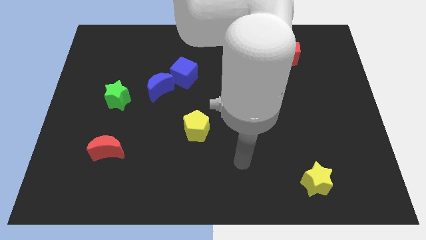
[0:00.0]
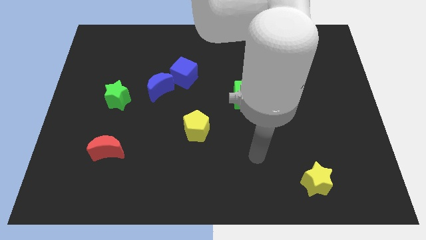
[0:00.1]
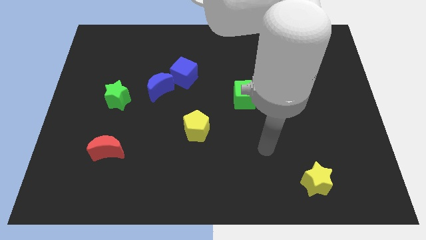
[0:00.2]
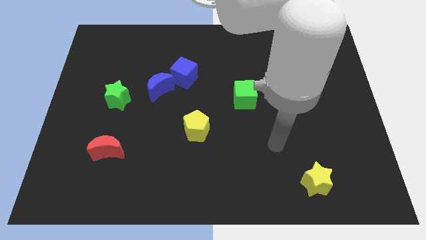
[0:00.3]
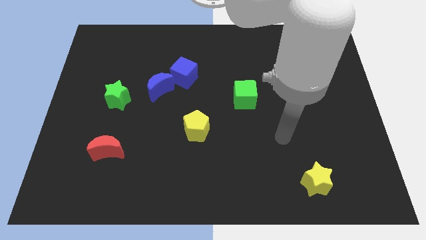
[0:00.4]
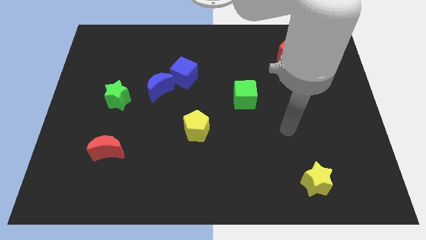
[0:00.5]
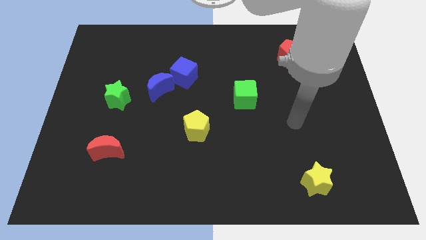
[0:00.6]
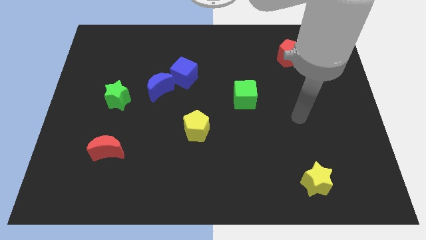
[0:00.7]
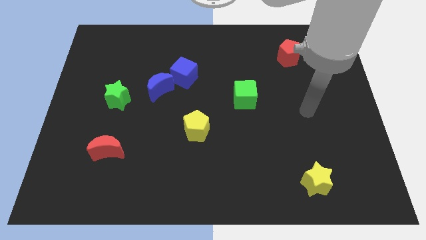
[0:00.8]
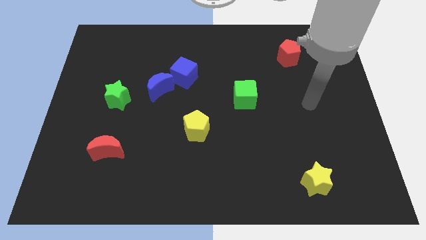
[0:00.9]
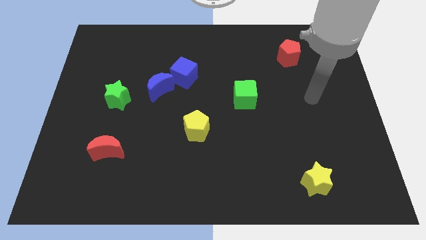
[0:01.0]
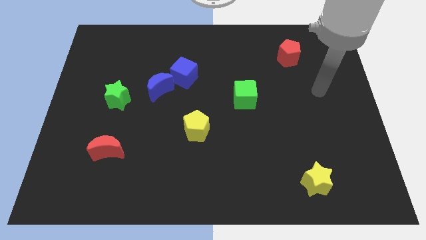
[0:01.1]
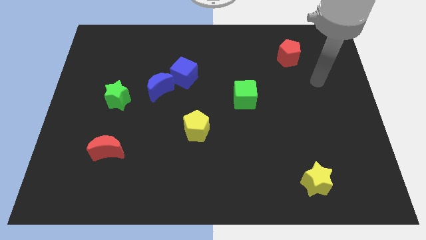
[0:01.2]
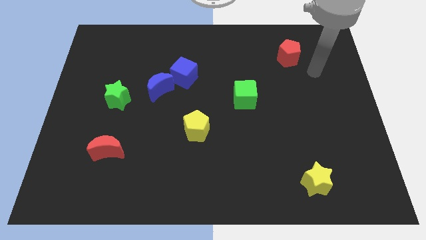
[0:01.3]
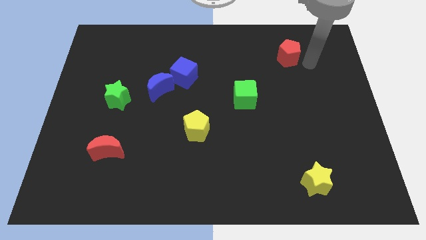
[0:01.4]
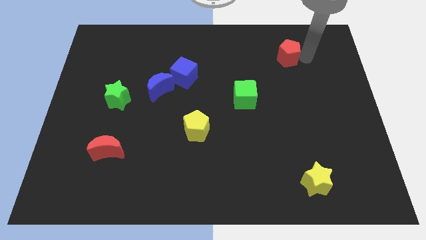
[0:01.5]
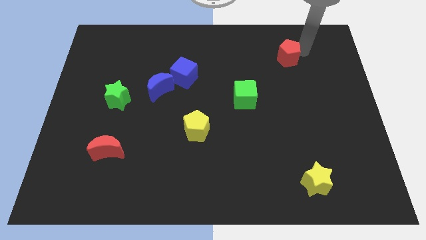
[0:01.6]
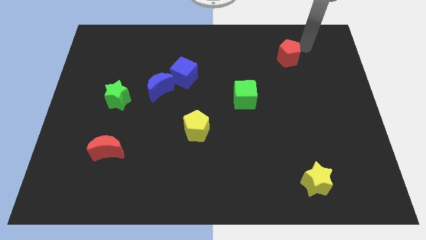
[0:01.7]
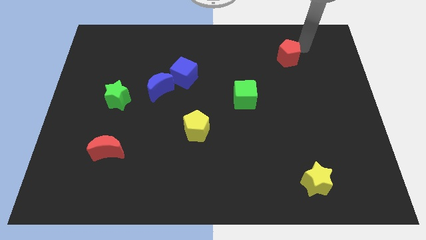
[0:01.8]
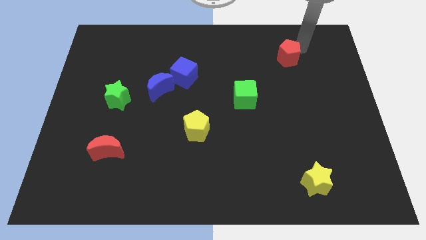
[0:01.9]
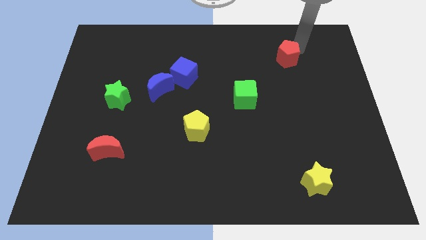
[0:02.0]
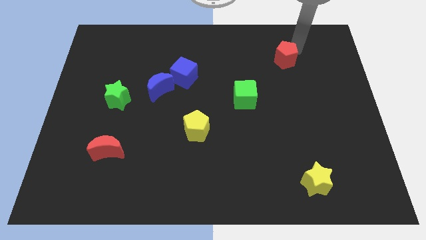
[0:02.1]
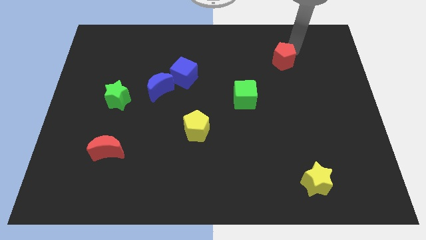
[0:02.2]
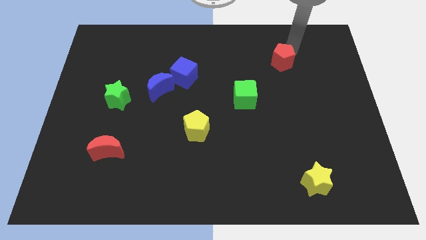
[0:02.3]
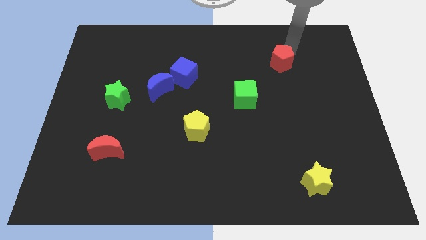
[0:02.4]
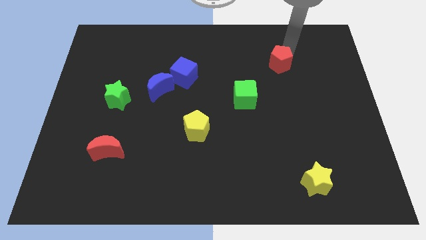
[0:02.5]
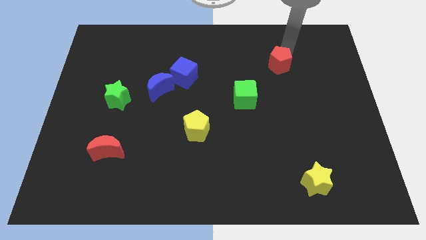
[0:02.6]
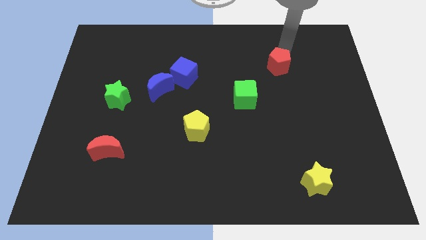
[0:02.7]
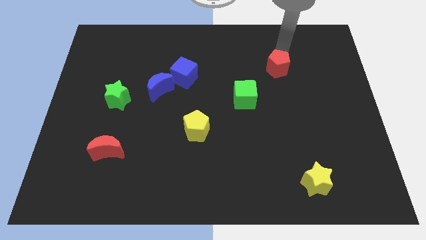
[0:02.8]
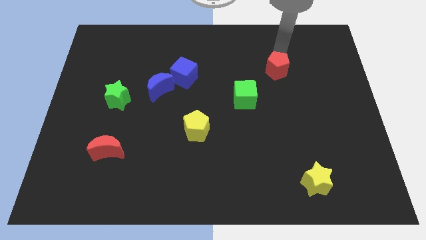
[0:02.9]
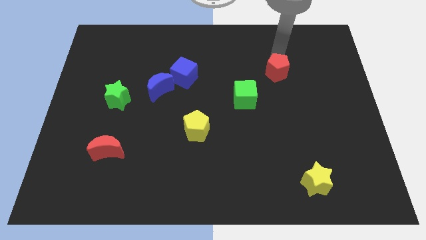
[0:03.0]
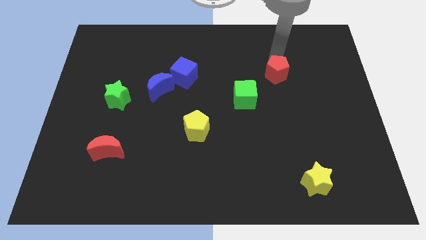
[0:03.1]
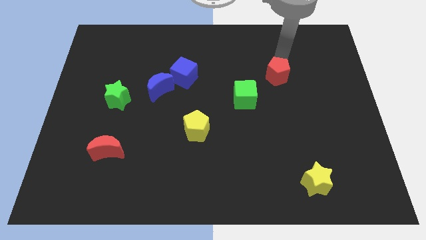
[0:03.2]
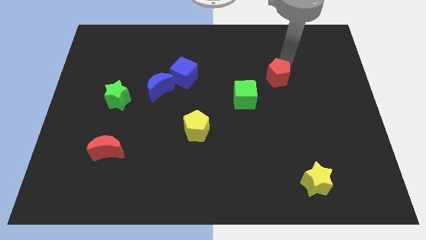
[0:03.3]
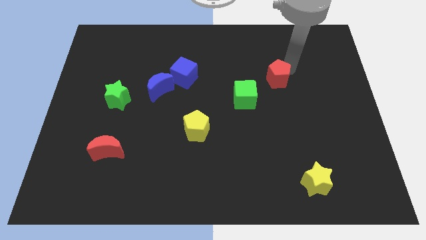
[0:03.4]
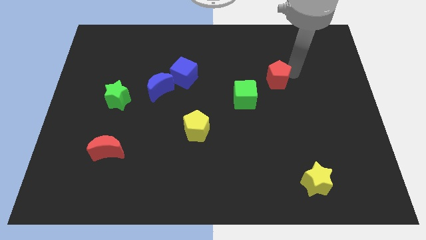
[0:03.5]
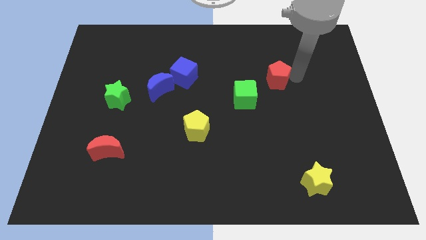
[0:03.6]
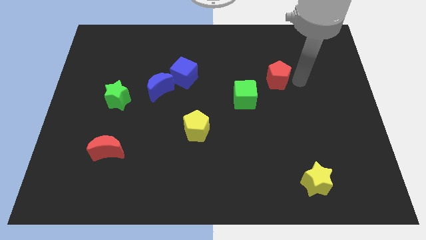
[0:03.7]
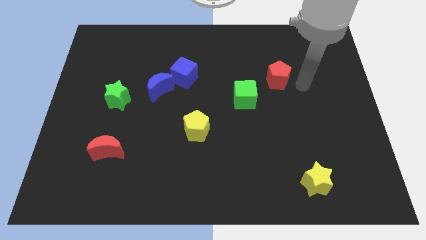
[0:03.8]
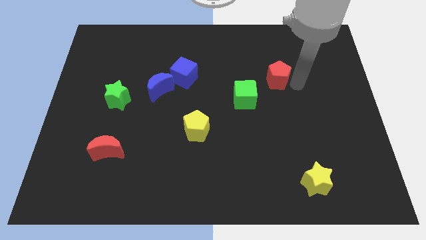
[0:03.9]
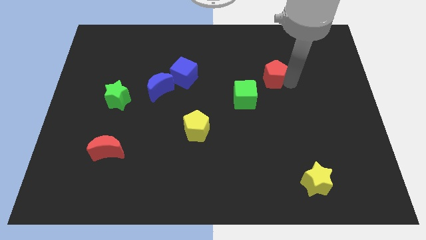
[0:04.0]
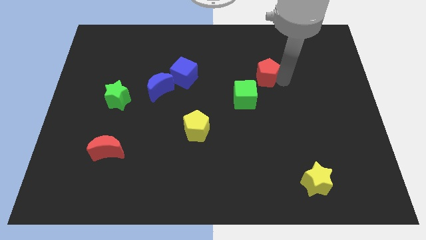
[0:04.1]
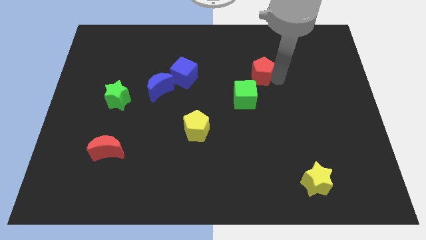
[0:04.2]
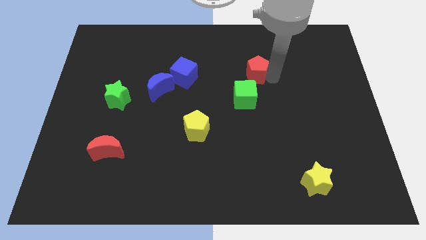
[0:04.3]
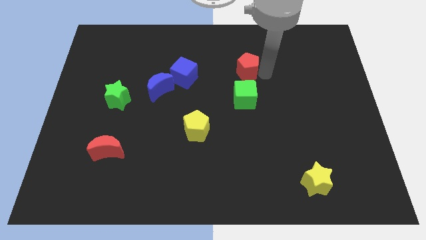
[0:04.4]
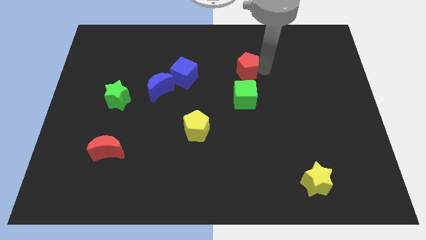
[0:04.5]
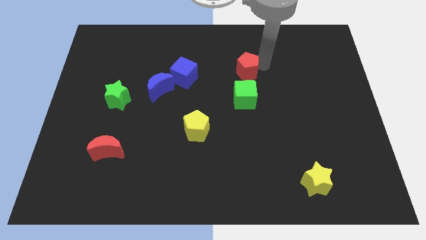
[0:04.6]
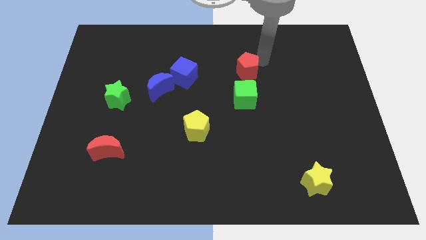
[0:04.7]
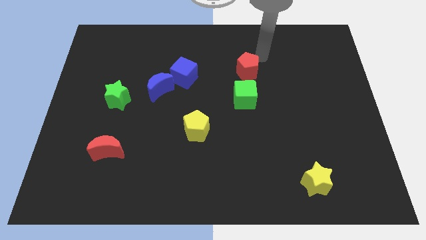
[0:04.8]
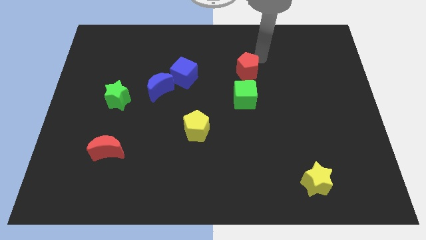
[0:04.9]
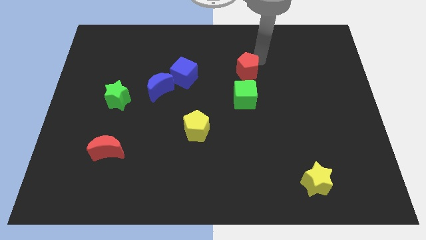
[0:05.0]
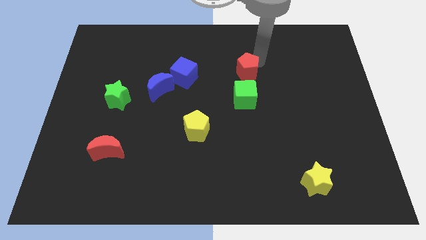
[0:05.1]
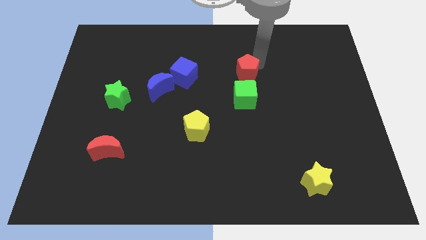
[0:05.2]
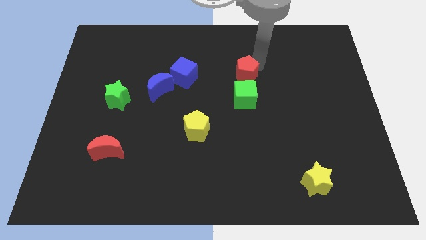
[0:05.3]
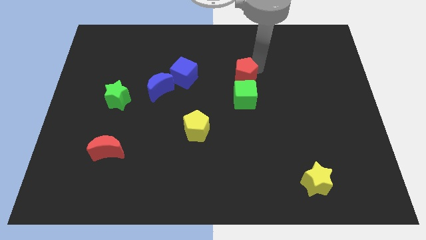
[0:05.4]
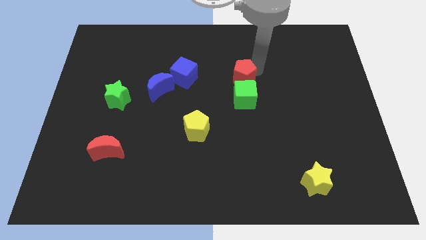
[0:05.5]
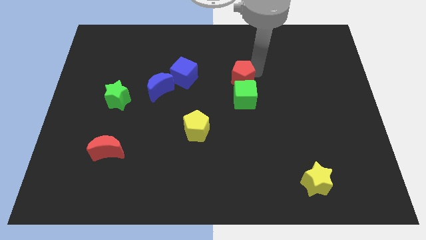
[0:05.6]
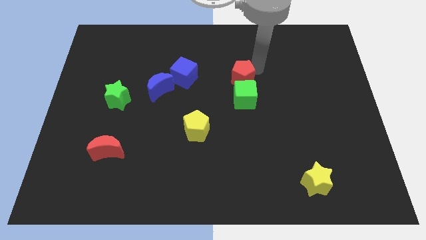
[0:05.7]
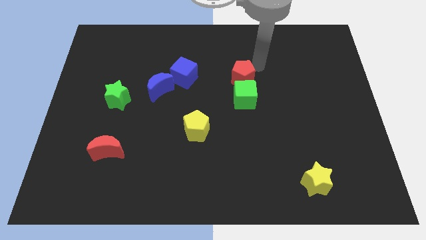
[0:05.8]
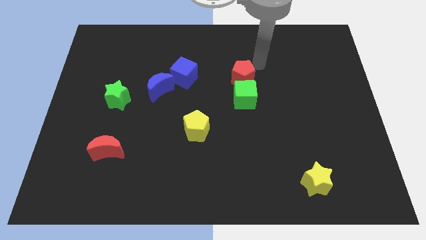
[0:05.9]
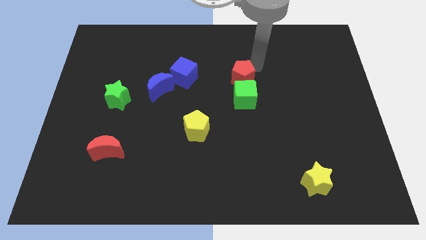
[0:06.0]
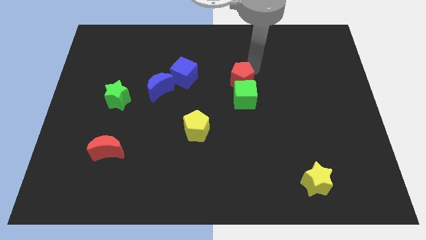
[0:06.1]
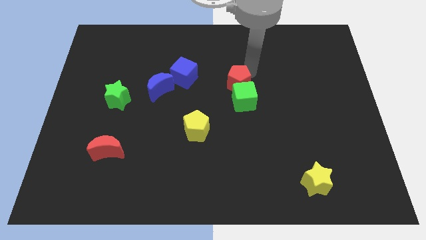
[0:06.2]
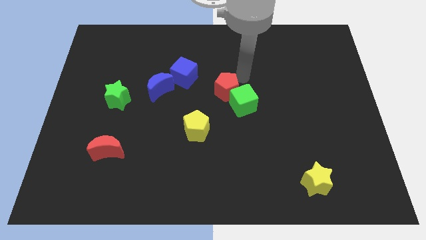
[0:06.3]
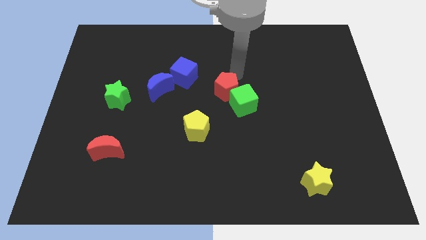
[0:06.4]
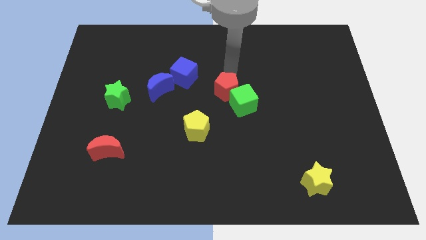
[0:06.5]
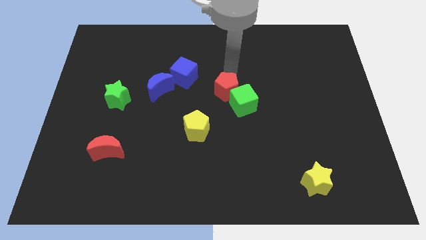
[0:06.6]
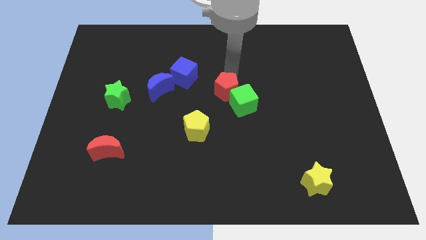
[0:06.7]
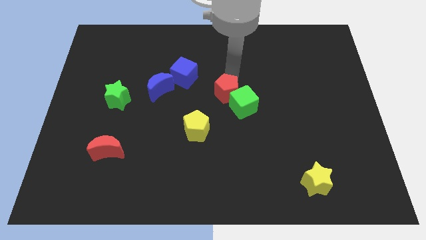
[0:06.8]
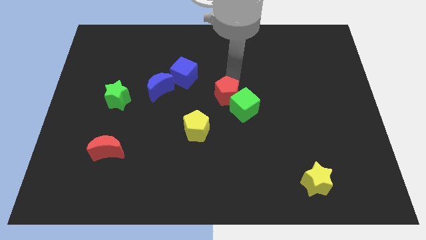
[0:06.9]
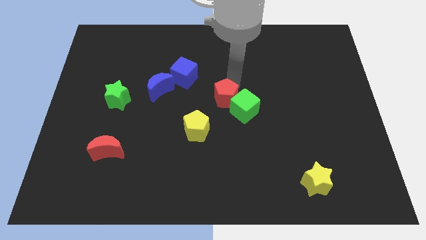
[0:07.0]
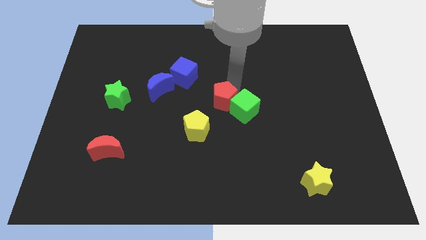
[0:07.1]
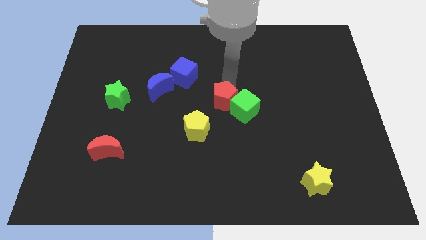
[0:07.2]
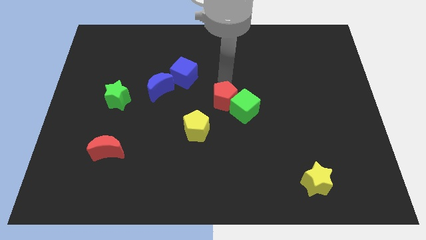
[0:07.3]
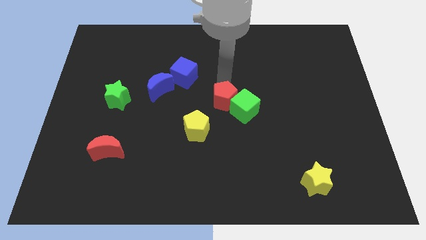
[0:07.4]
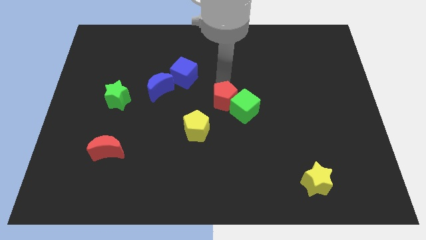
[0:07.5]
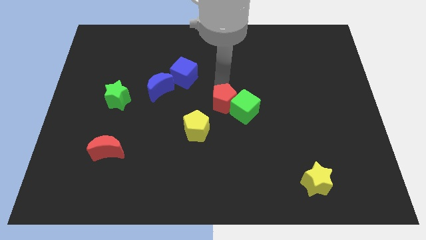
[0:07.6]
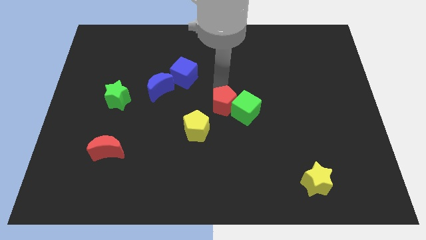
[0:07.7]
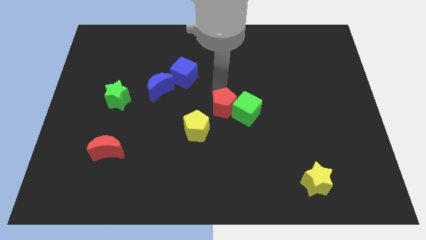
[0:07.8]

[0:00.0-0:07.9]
push the red pentagon to the bottom left of the green cube
